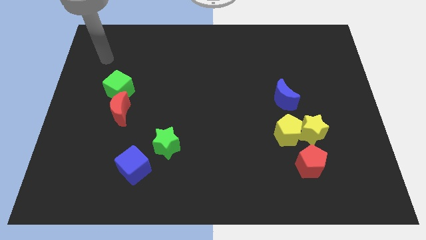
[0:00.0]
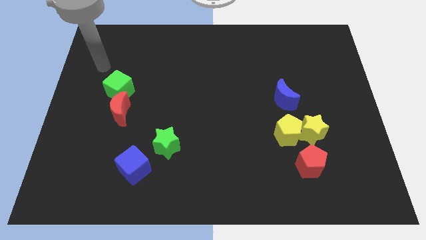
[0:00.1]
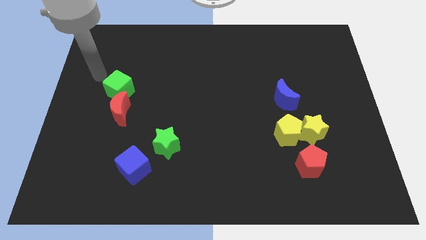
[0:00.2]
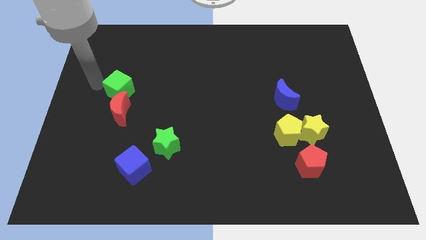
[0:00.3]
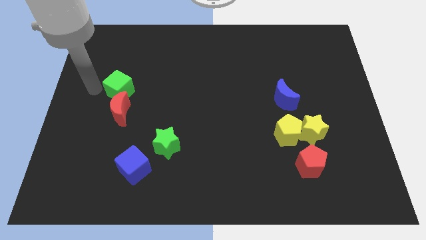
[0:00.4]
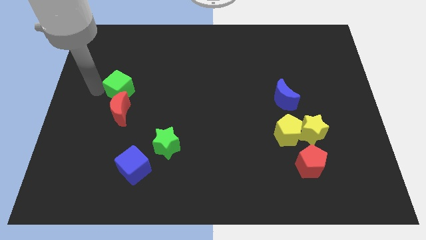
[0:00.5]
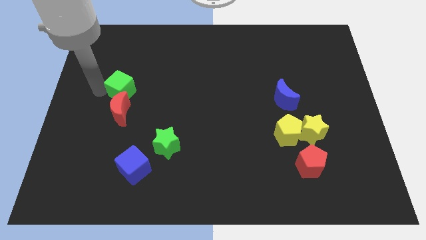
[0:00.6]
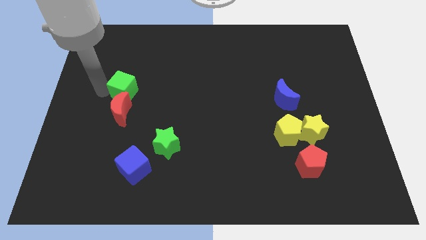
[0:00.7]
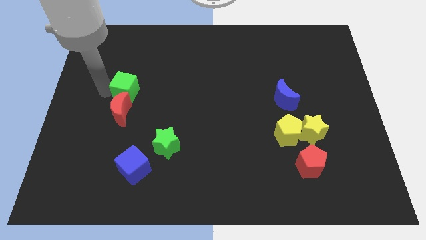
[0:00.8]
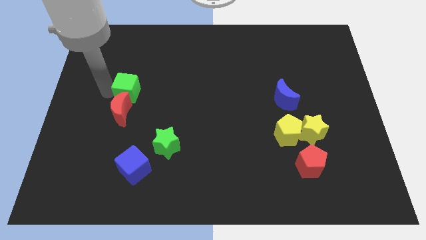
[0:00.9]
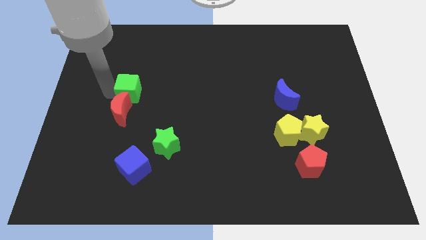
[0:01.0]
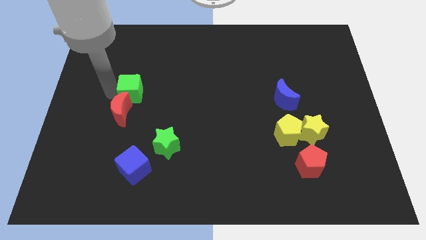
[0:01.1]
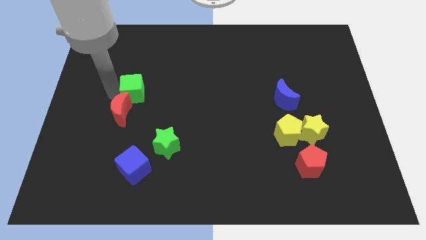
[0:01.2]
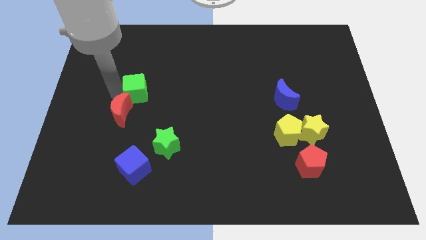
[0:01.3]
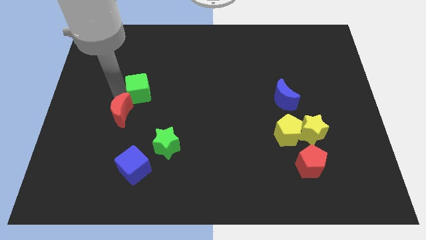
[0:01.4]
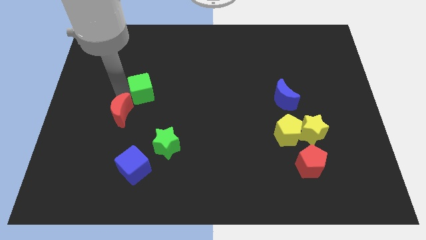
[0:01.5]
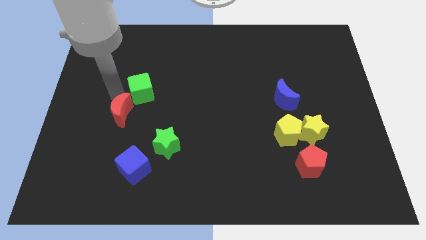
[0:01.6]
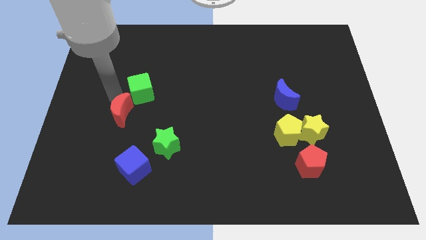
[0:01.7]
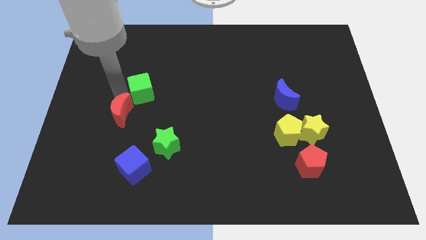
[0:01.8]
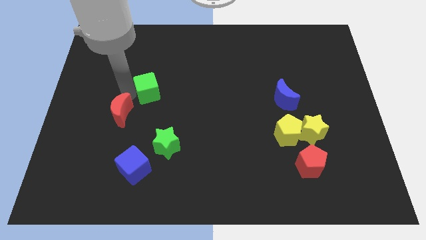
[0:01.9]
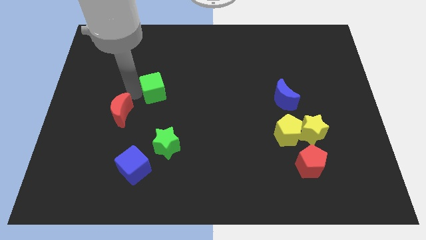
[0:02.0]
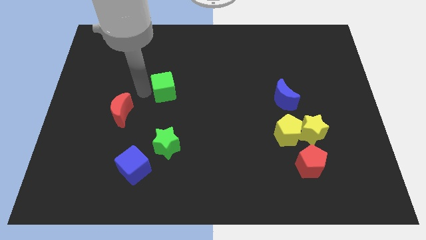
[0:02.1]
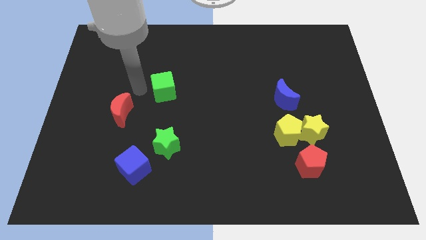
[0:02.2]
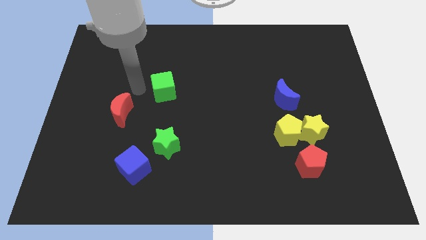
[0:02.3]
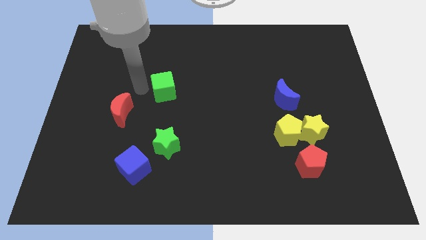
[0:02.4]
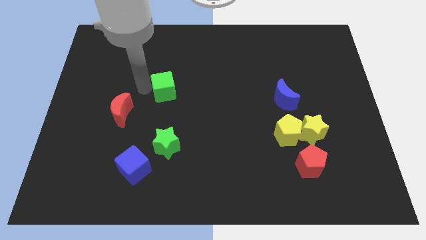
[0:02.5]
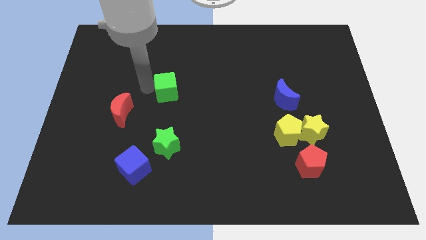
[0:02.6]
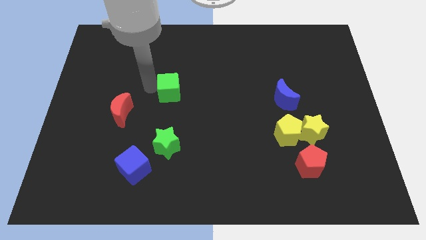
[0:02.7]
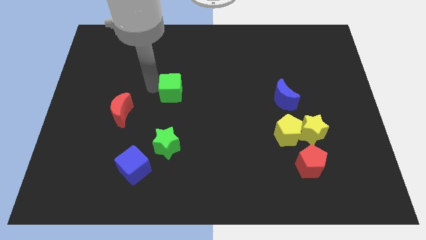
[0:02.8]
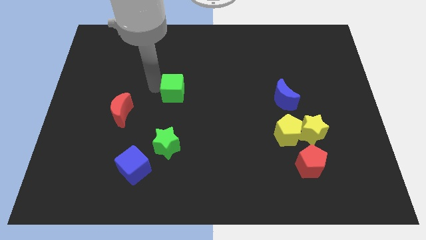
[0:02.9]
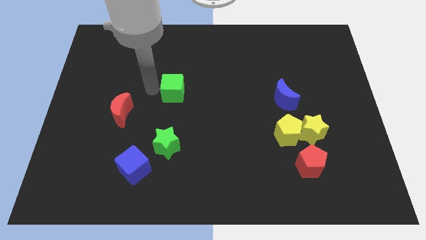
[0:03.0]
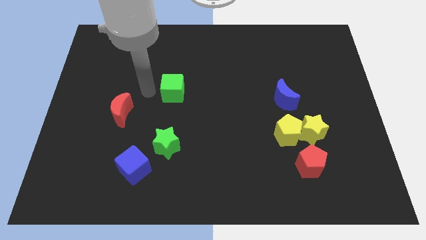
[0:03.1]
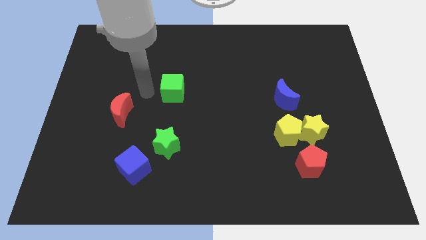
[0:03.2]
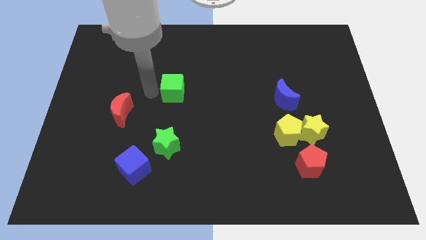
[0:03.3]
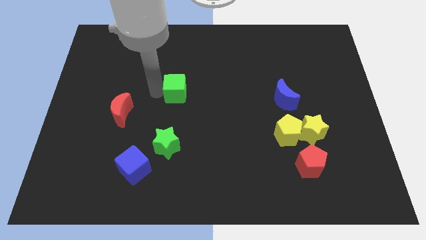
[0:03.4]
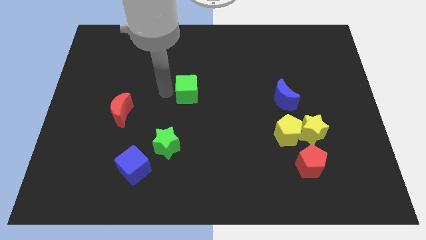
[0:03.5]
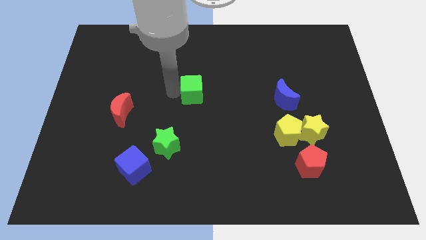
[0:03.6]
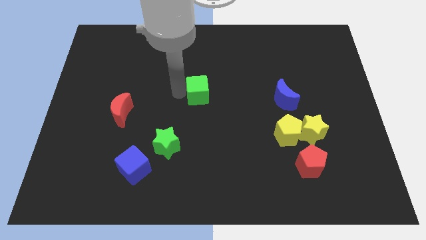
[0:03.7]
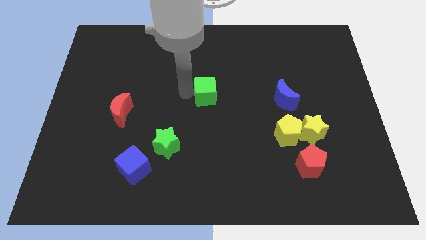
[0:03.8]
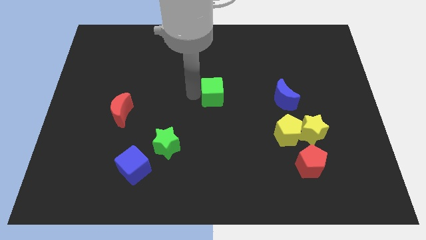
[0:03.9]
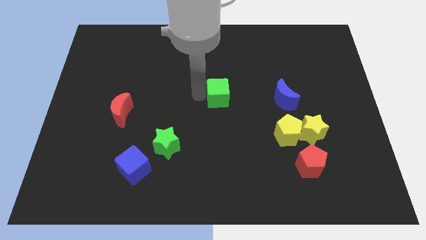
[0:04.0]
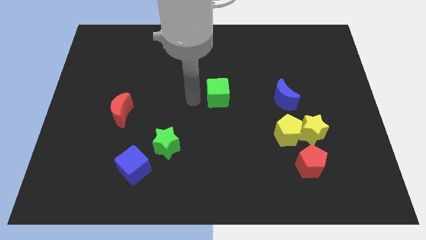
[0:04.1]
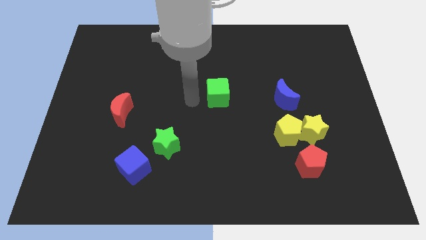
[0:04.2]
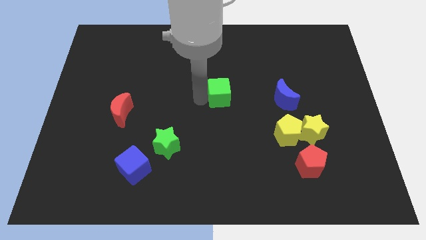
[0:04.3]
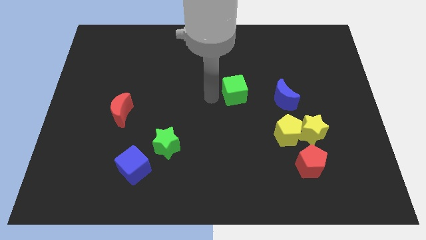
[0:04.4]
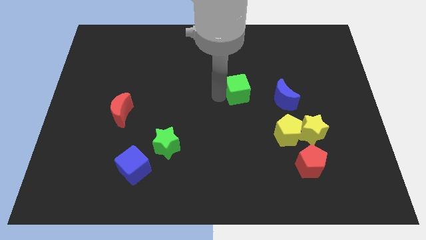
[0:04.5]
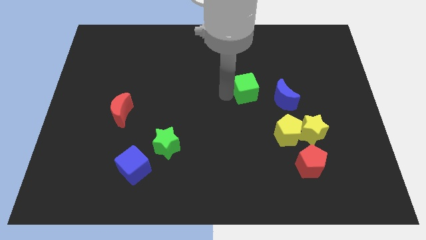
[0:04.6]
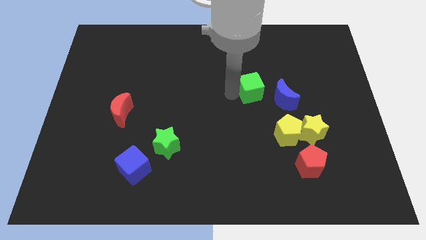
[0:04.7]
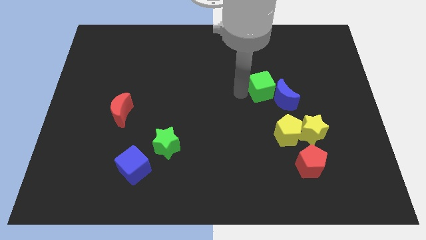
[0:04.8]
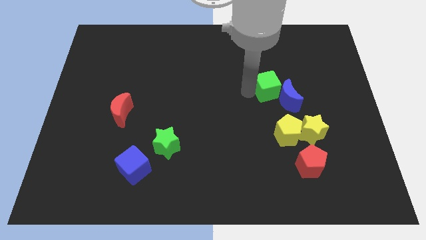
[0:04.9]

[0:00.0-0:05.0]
put the green cube to the top of the yellow pentagon

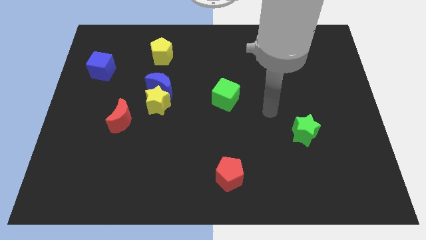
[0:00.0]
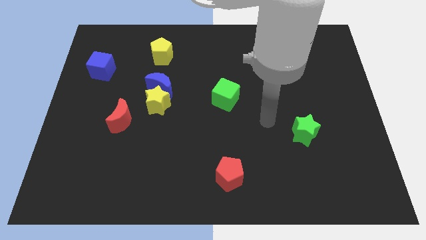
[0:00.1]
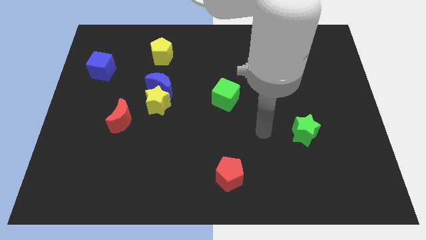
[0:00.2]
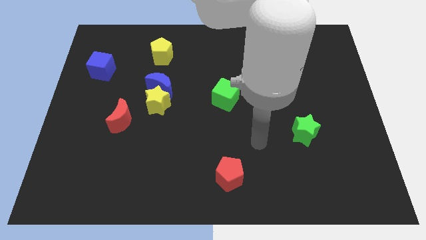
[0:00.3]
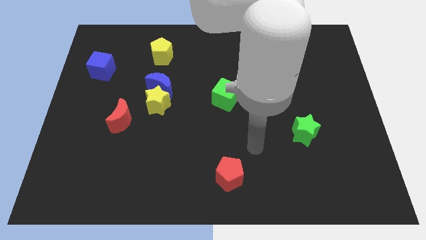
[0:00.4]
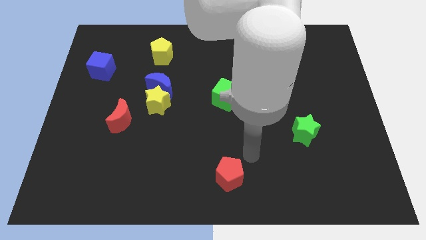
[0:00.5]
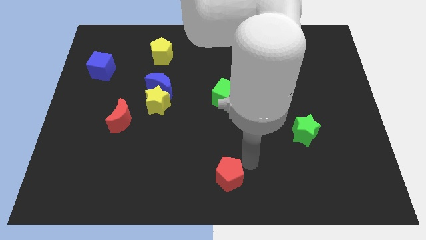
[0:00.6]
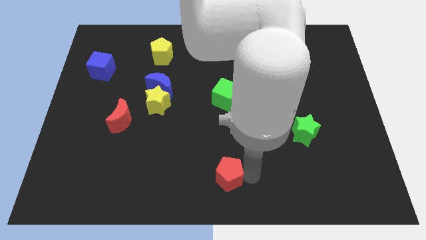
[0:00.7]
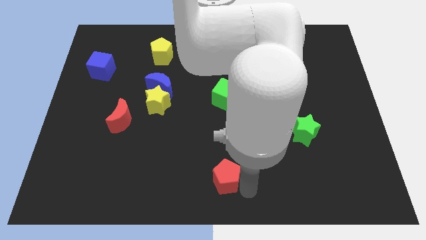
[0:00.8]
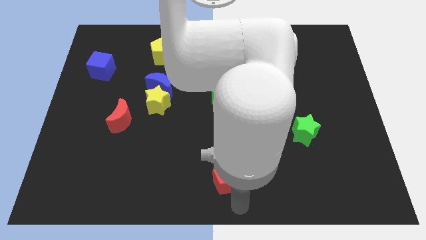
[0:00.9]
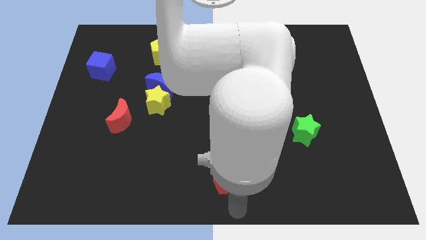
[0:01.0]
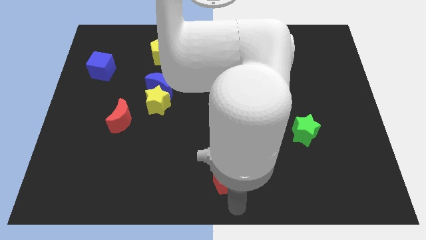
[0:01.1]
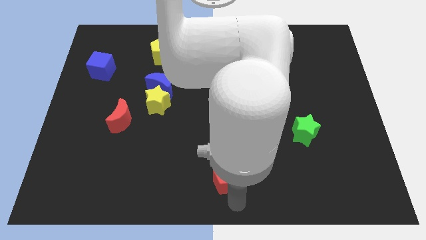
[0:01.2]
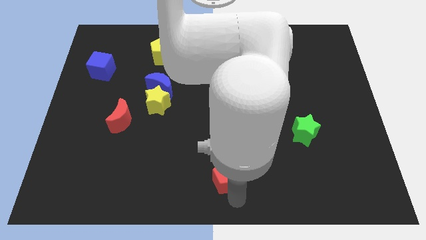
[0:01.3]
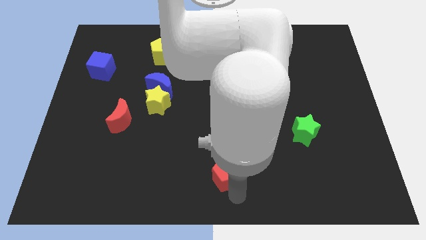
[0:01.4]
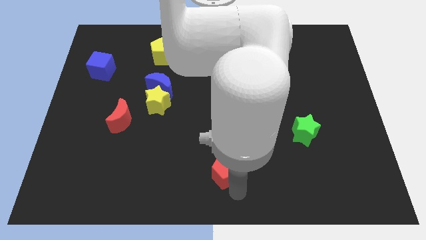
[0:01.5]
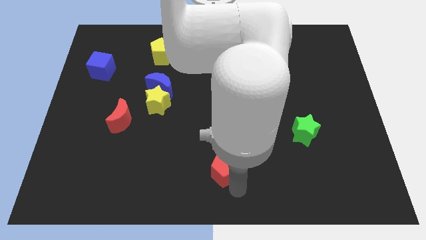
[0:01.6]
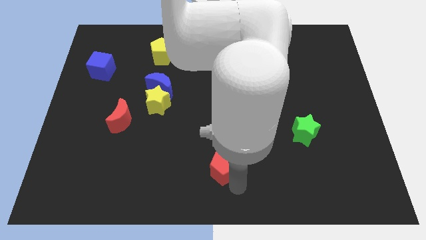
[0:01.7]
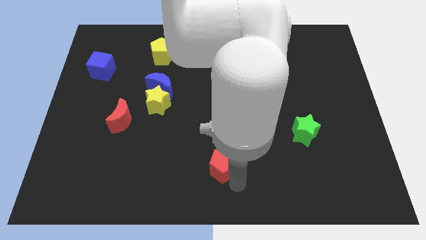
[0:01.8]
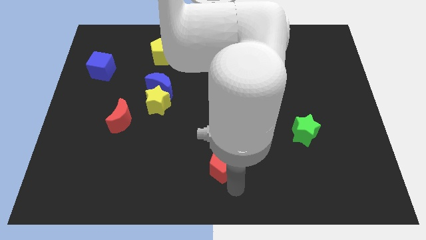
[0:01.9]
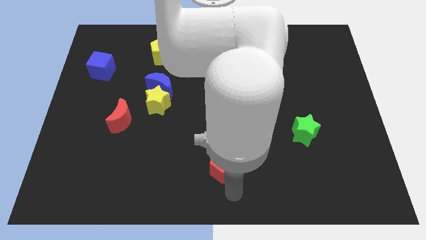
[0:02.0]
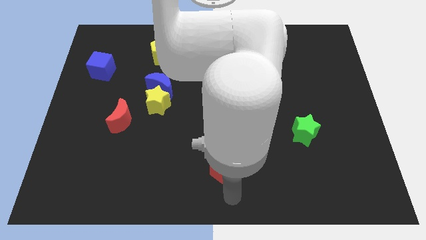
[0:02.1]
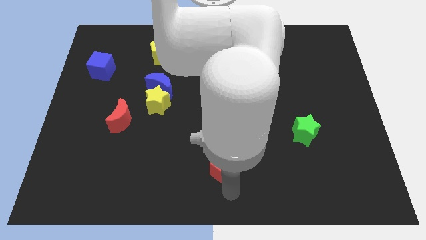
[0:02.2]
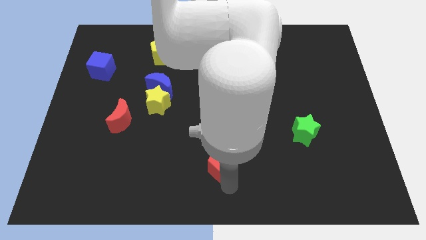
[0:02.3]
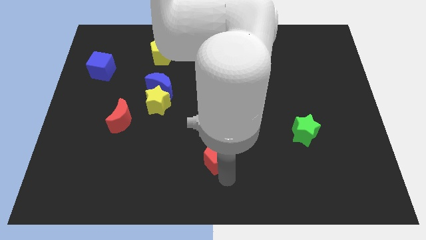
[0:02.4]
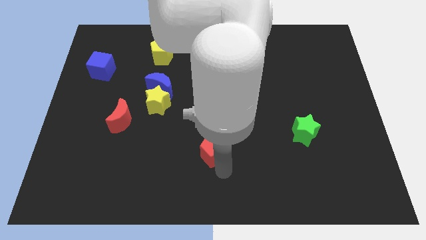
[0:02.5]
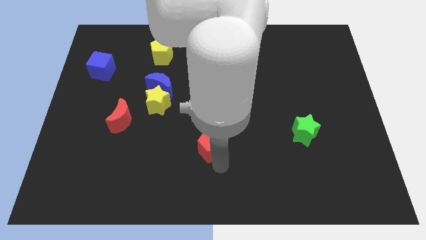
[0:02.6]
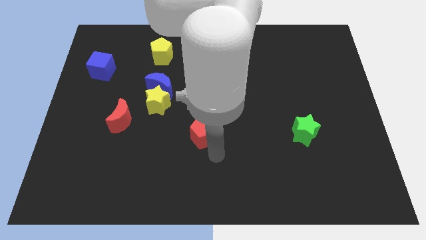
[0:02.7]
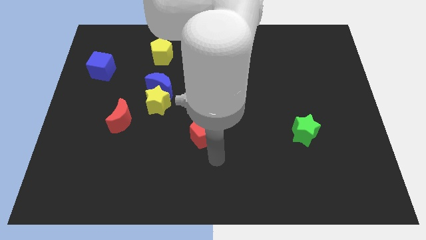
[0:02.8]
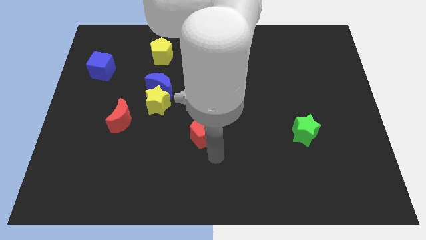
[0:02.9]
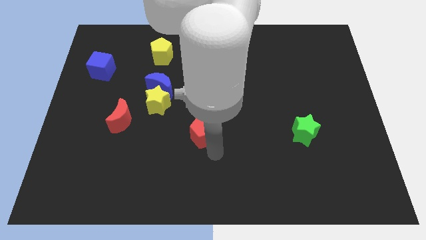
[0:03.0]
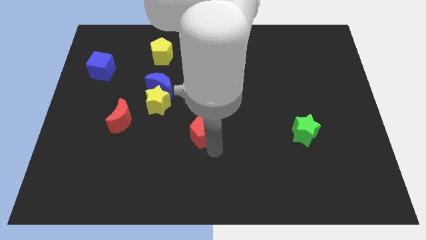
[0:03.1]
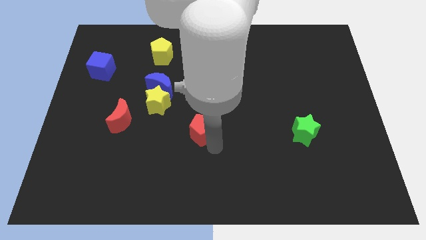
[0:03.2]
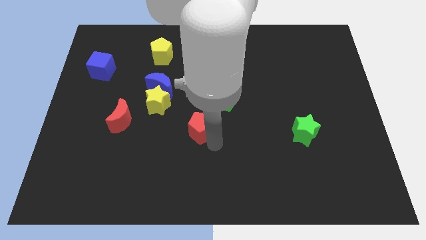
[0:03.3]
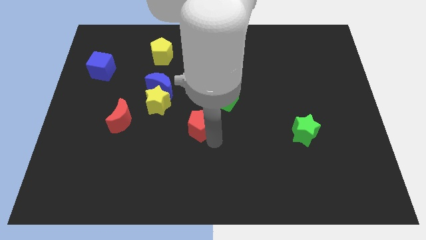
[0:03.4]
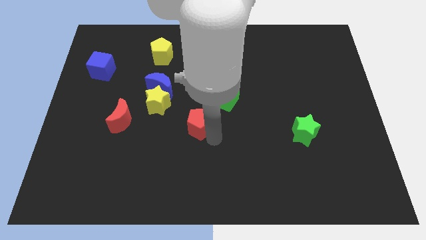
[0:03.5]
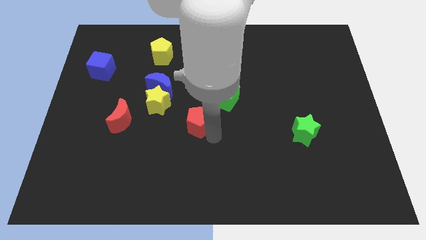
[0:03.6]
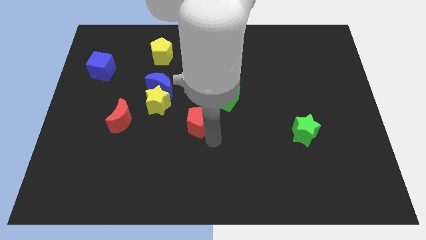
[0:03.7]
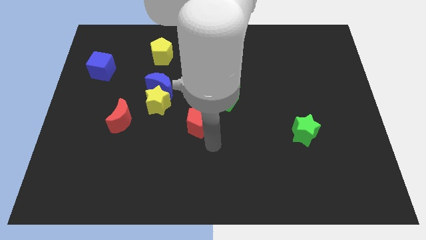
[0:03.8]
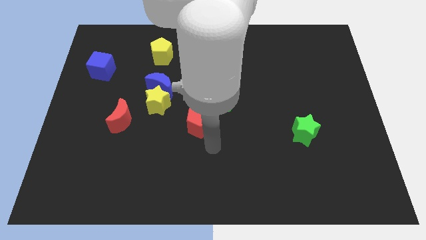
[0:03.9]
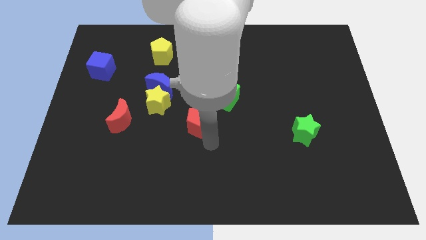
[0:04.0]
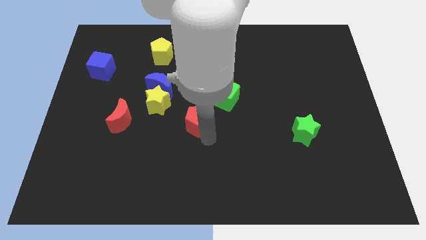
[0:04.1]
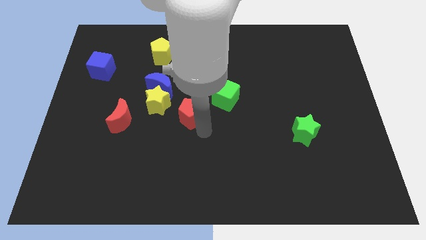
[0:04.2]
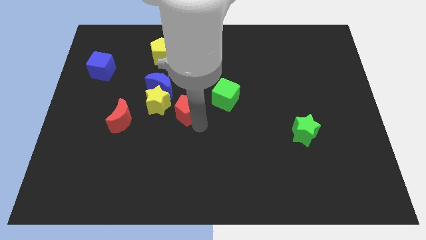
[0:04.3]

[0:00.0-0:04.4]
slide the red pentagon to the left side of the green cube
